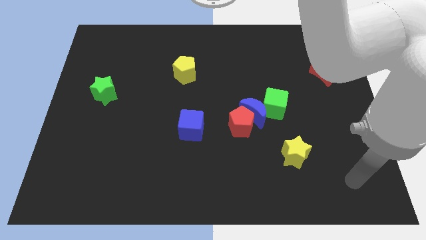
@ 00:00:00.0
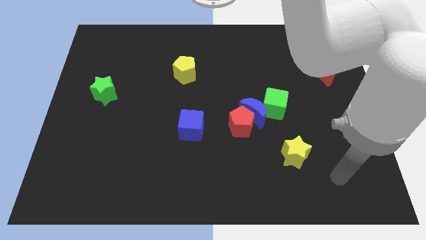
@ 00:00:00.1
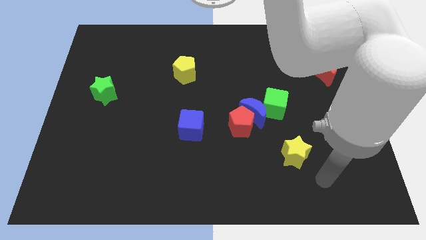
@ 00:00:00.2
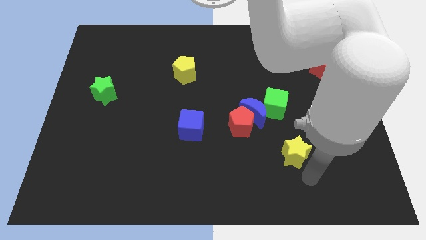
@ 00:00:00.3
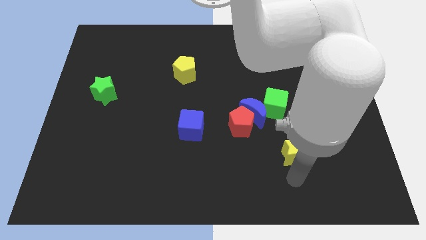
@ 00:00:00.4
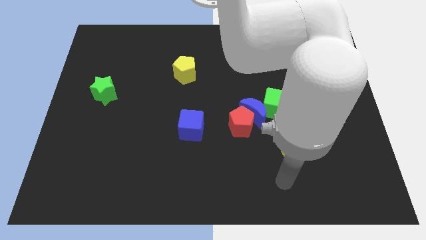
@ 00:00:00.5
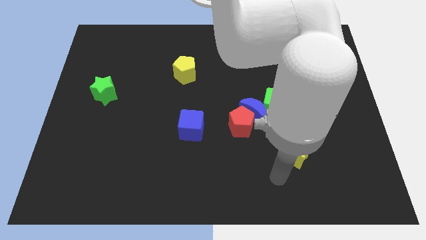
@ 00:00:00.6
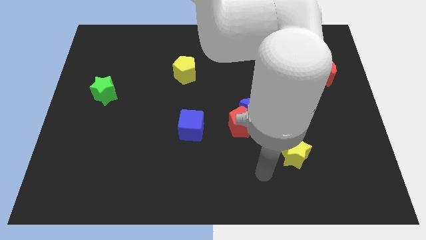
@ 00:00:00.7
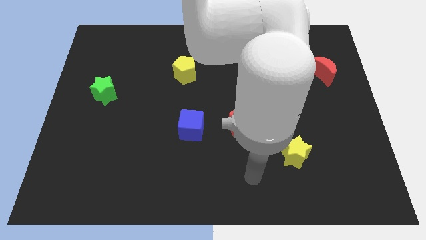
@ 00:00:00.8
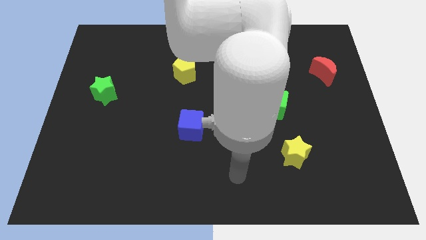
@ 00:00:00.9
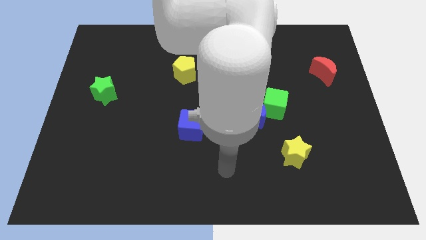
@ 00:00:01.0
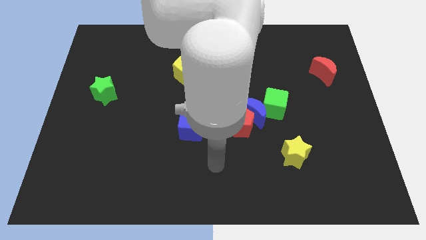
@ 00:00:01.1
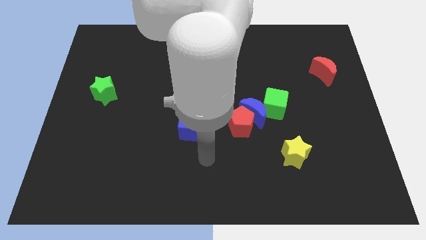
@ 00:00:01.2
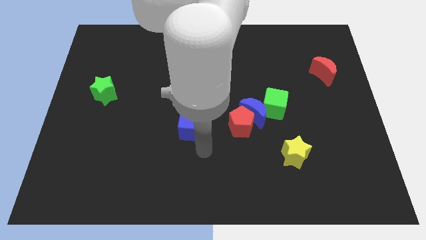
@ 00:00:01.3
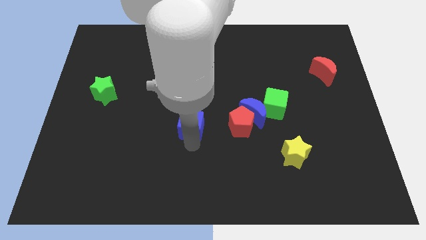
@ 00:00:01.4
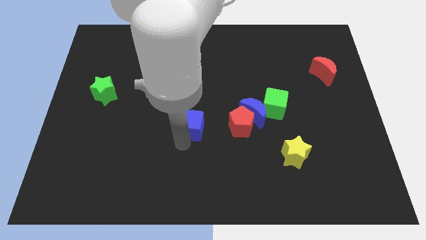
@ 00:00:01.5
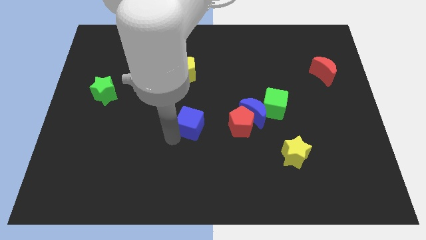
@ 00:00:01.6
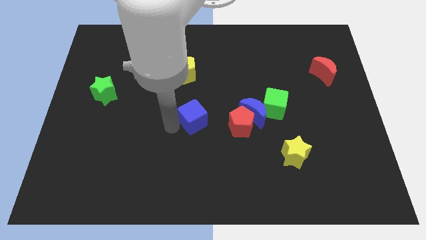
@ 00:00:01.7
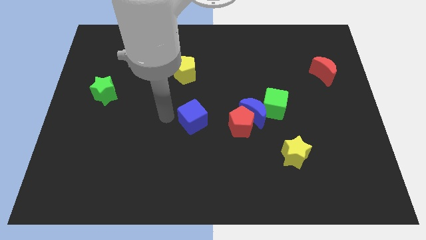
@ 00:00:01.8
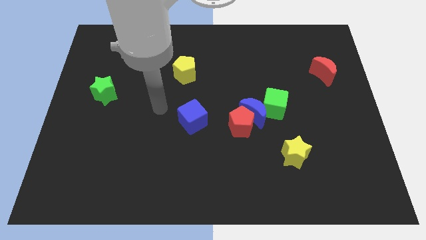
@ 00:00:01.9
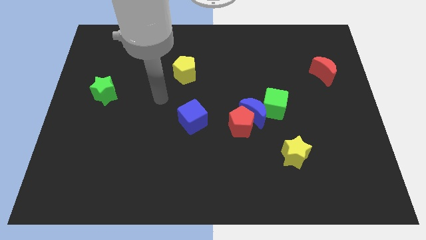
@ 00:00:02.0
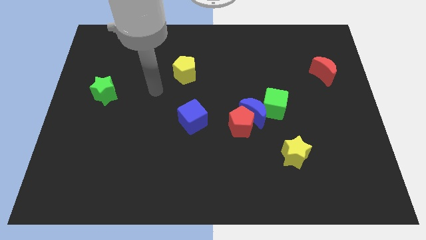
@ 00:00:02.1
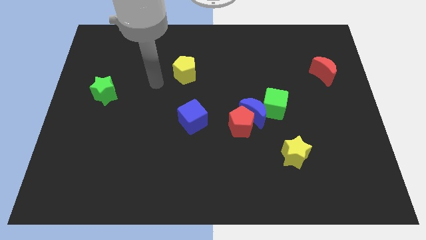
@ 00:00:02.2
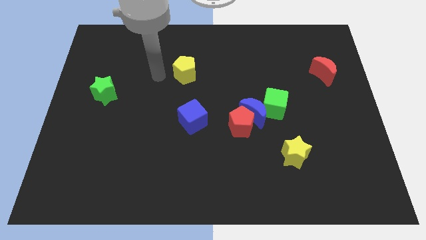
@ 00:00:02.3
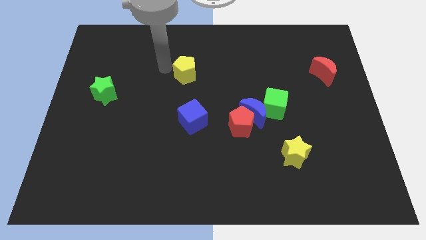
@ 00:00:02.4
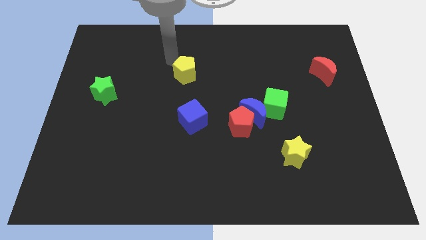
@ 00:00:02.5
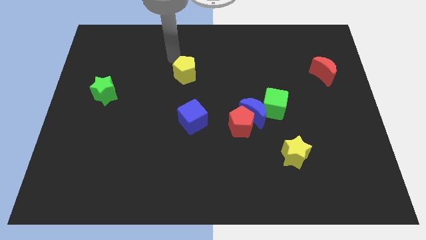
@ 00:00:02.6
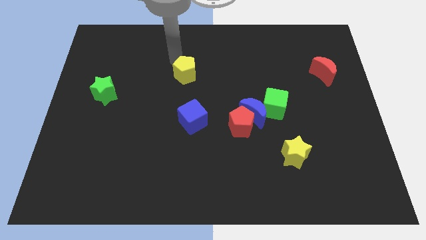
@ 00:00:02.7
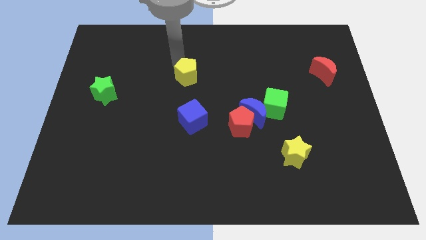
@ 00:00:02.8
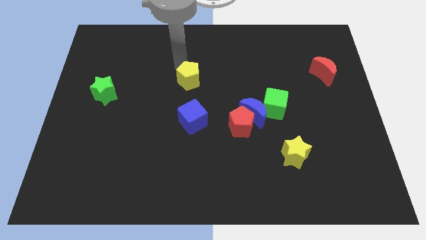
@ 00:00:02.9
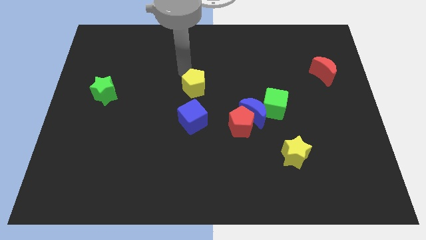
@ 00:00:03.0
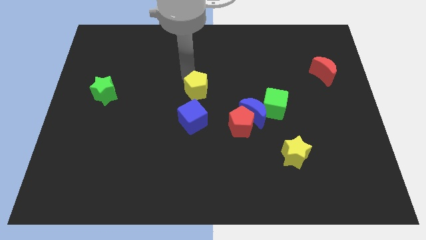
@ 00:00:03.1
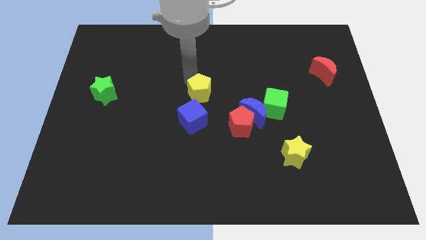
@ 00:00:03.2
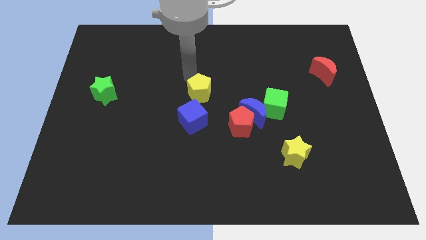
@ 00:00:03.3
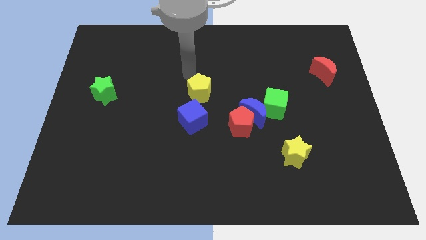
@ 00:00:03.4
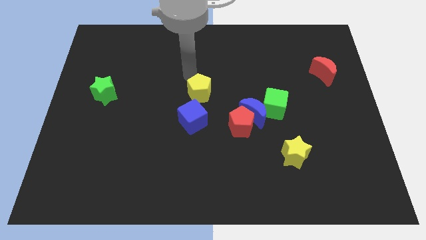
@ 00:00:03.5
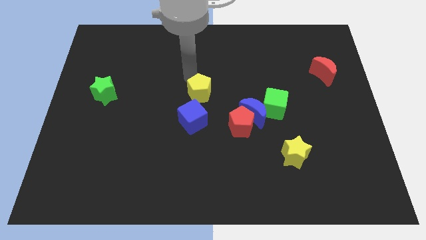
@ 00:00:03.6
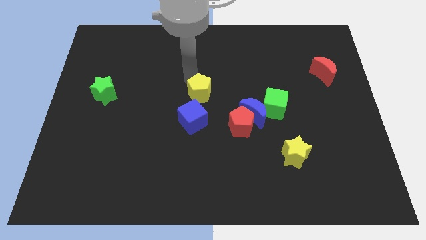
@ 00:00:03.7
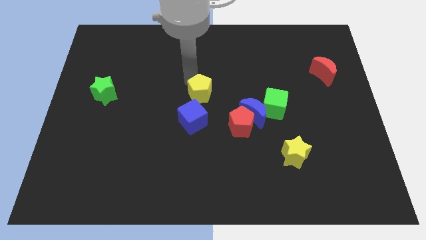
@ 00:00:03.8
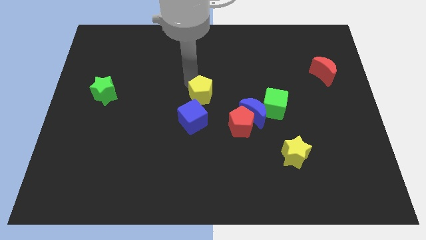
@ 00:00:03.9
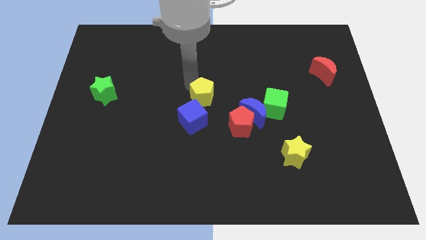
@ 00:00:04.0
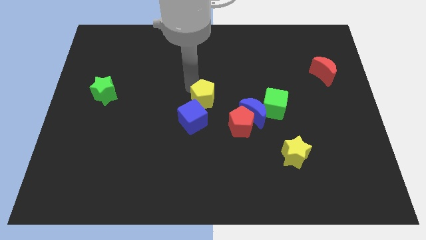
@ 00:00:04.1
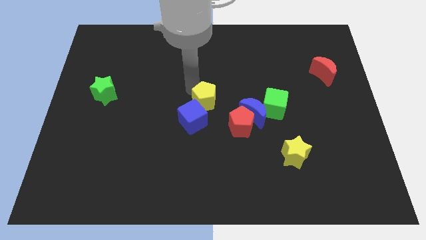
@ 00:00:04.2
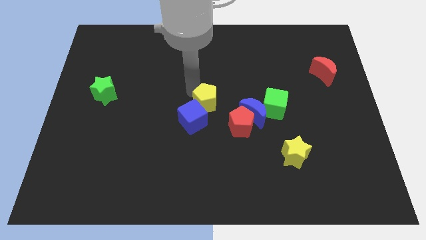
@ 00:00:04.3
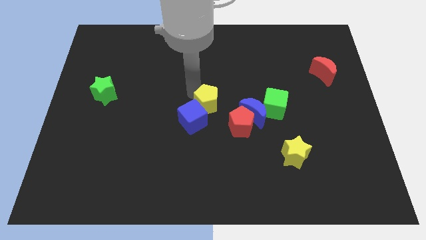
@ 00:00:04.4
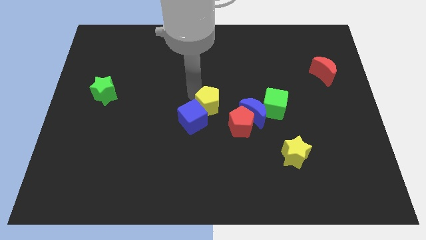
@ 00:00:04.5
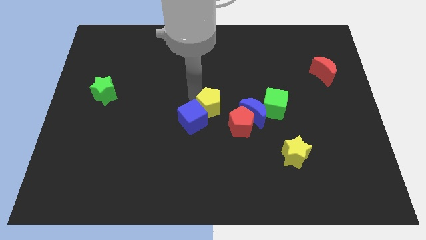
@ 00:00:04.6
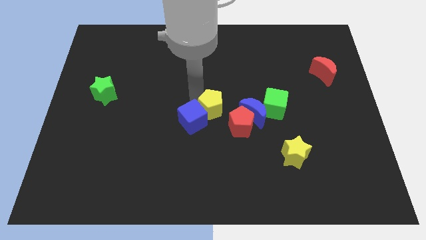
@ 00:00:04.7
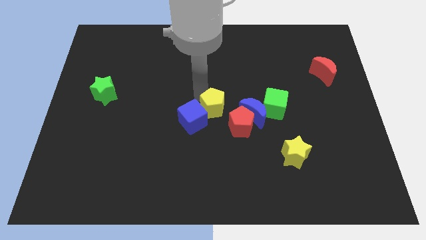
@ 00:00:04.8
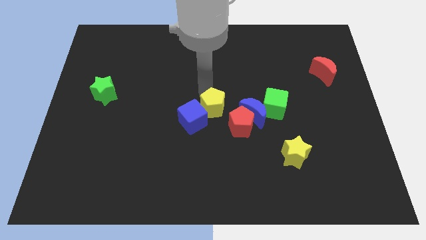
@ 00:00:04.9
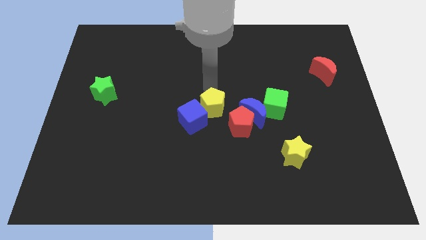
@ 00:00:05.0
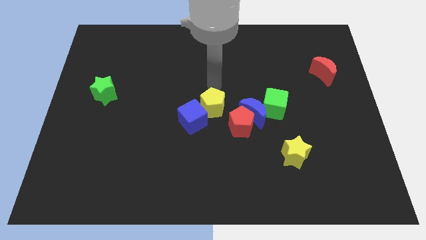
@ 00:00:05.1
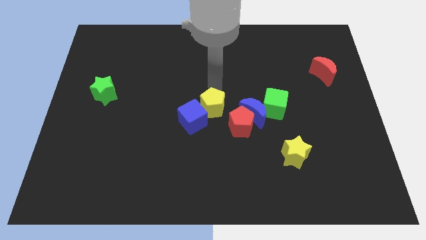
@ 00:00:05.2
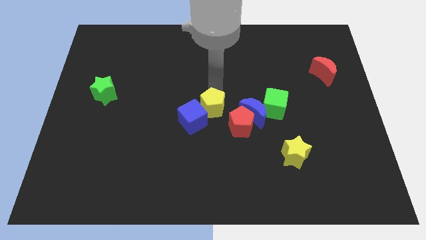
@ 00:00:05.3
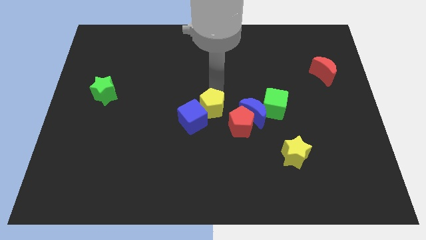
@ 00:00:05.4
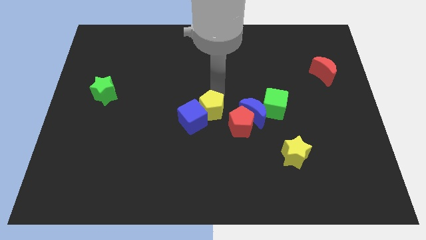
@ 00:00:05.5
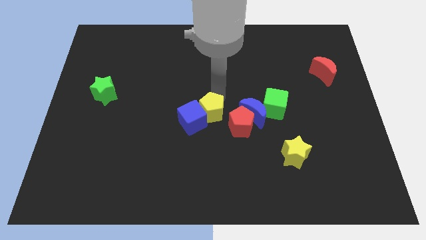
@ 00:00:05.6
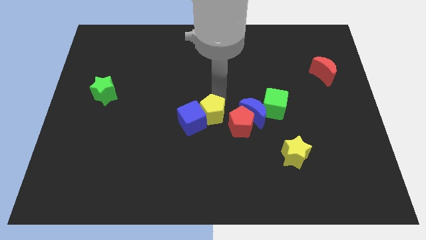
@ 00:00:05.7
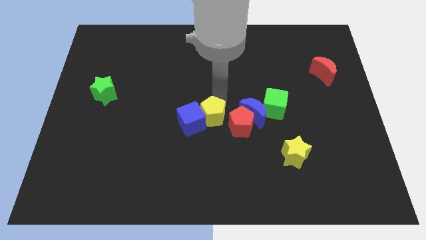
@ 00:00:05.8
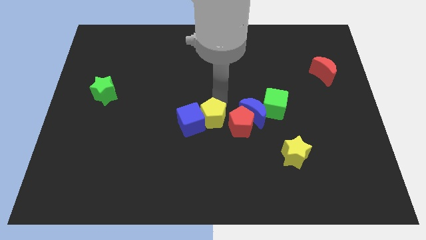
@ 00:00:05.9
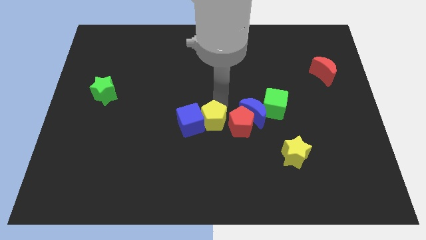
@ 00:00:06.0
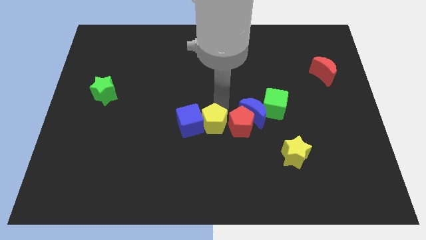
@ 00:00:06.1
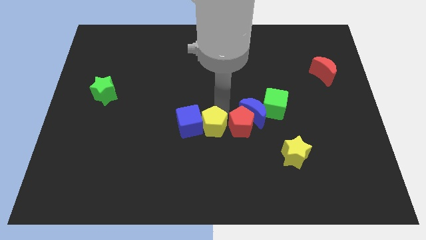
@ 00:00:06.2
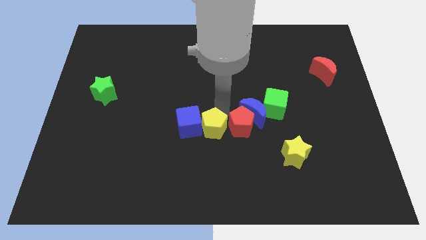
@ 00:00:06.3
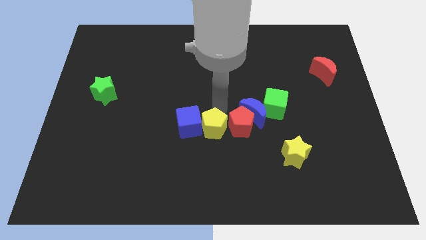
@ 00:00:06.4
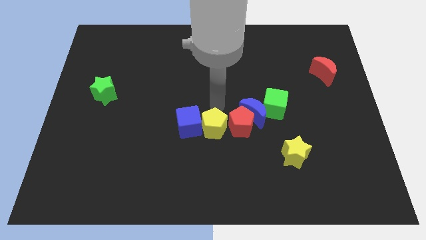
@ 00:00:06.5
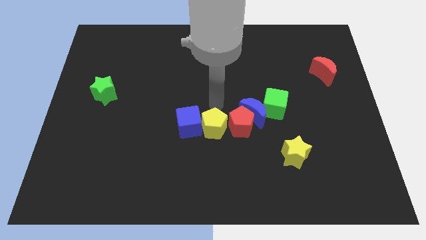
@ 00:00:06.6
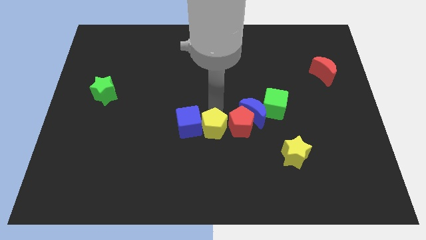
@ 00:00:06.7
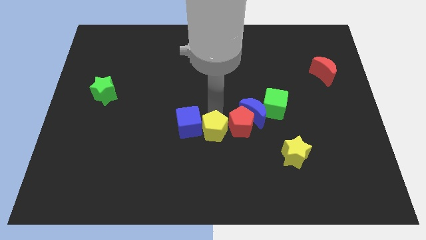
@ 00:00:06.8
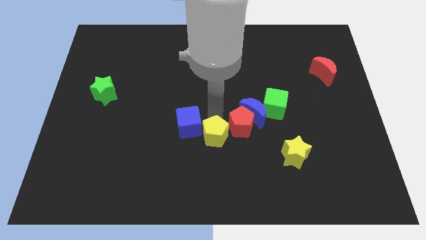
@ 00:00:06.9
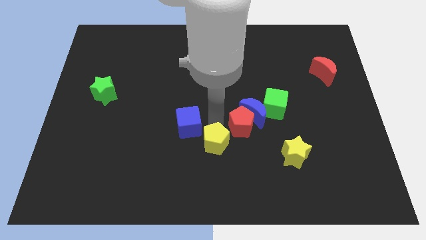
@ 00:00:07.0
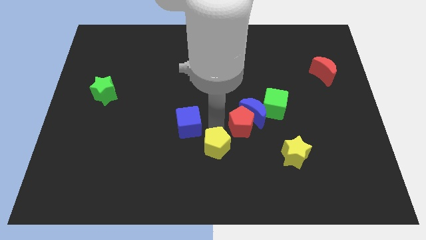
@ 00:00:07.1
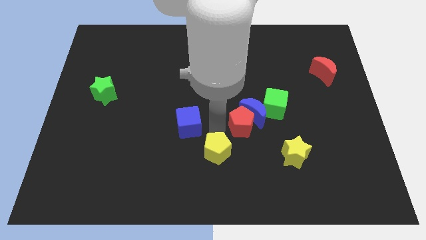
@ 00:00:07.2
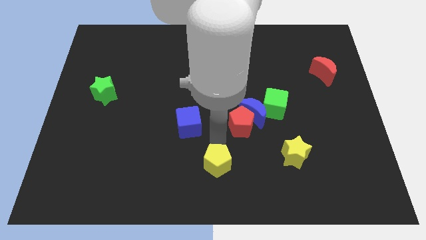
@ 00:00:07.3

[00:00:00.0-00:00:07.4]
push the yellow pentagon to the bottom
